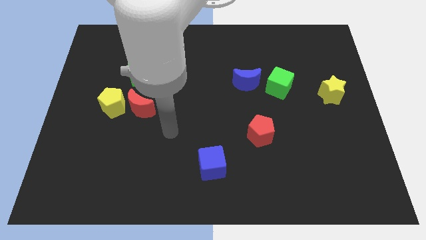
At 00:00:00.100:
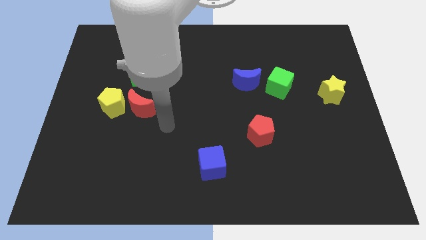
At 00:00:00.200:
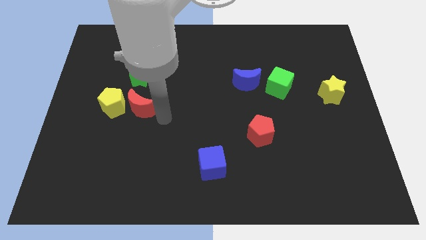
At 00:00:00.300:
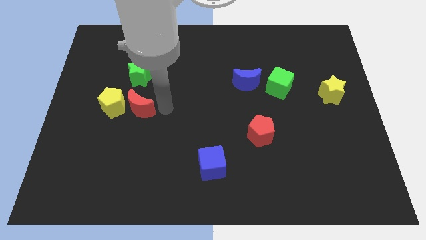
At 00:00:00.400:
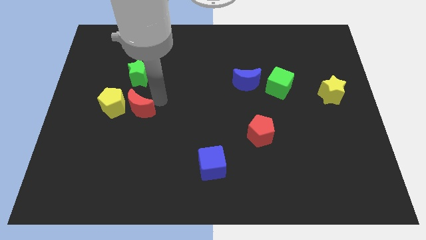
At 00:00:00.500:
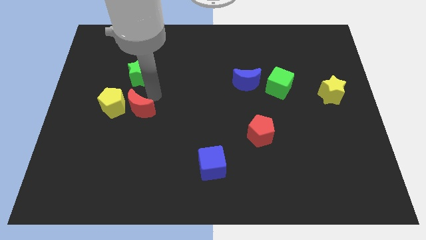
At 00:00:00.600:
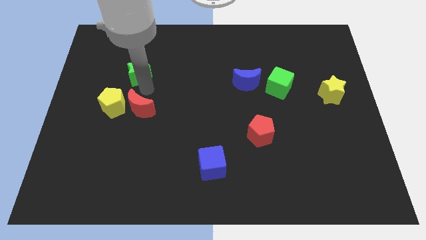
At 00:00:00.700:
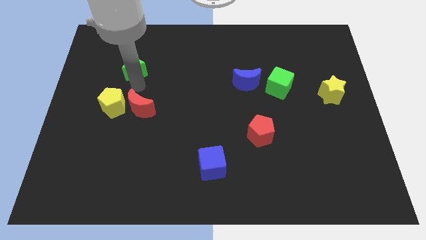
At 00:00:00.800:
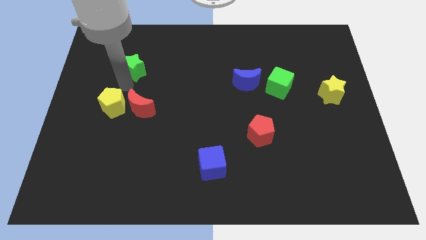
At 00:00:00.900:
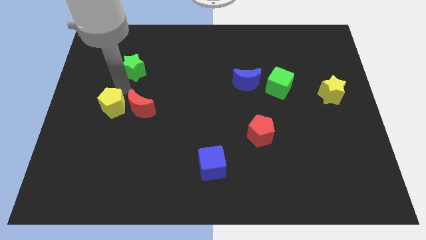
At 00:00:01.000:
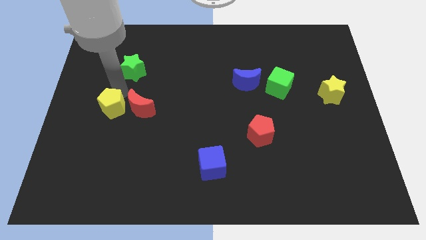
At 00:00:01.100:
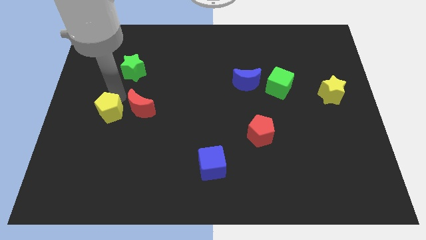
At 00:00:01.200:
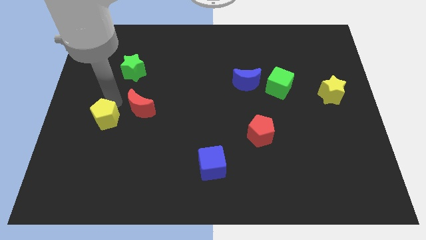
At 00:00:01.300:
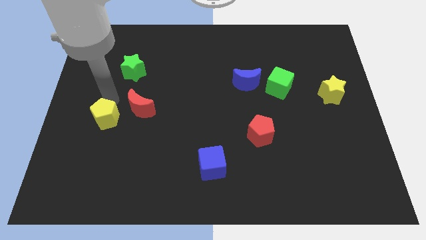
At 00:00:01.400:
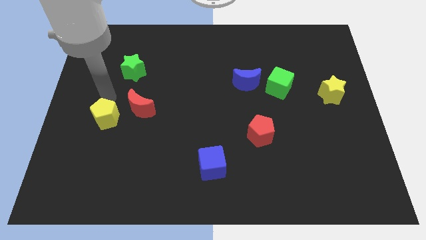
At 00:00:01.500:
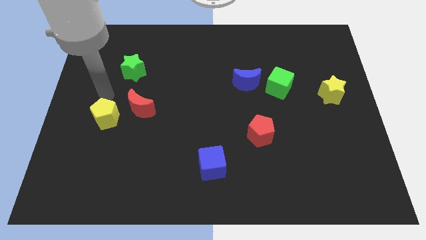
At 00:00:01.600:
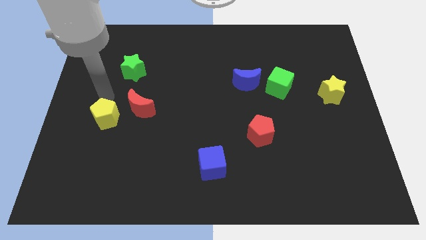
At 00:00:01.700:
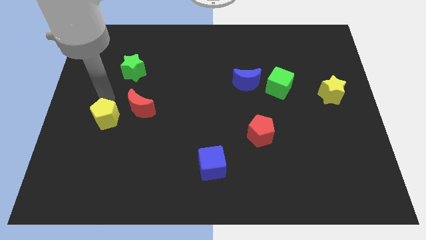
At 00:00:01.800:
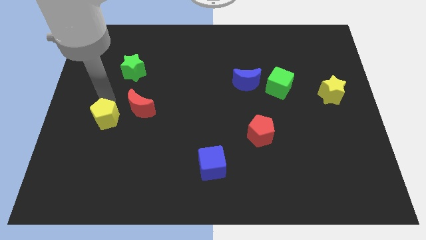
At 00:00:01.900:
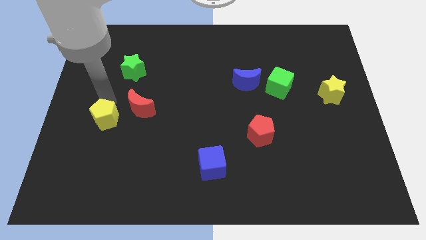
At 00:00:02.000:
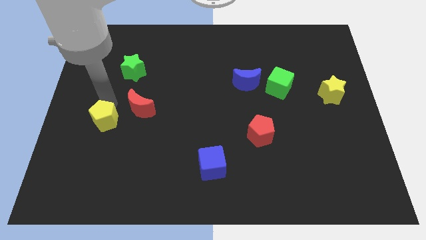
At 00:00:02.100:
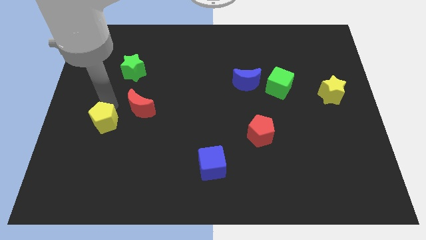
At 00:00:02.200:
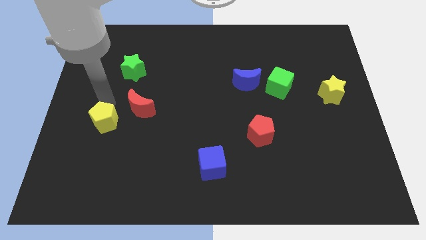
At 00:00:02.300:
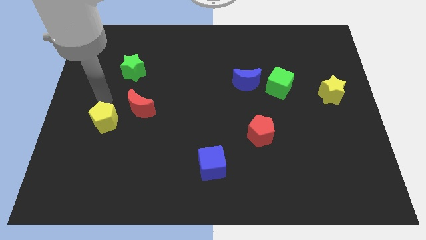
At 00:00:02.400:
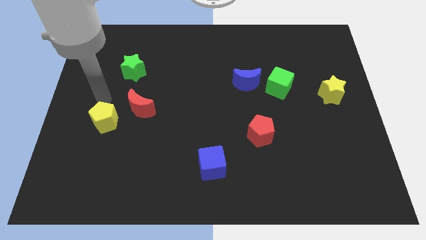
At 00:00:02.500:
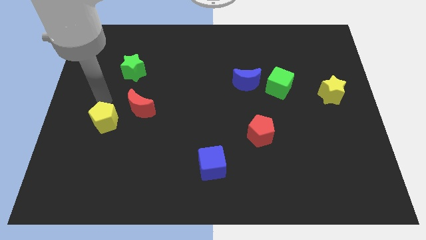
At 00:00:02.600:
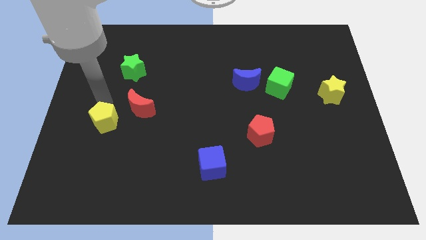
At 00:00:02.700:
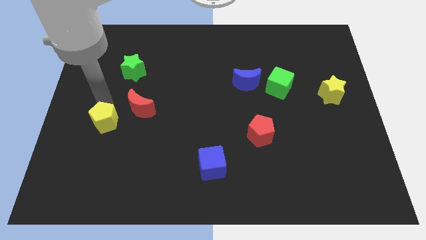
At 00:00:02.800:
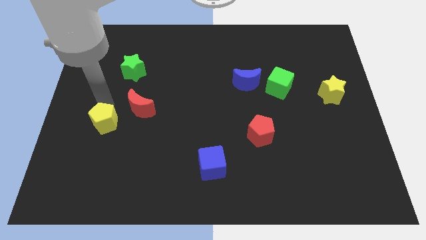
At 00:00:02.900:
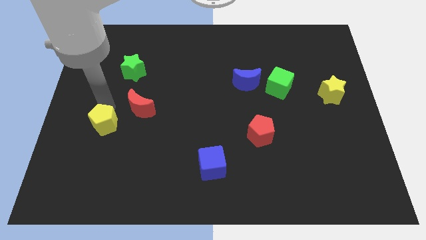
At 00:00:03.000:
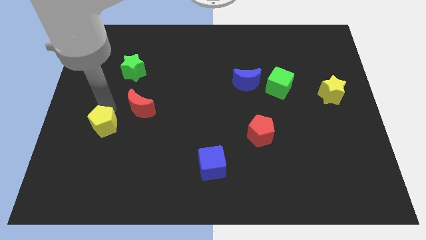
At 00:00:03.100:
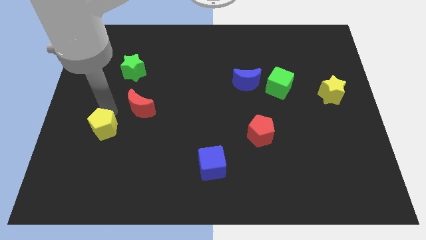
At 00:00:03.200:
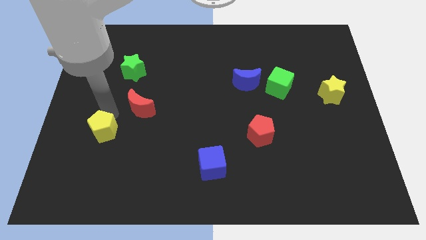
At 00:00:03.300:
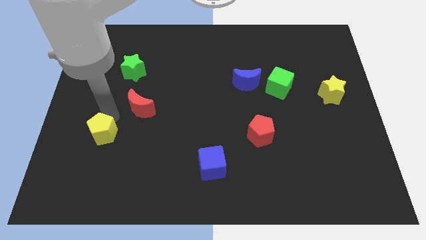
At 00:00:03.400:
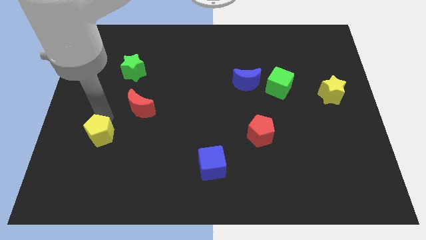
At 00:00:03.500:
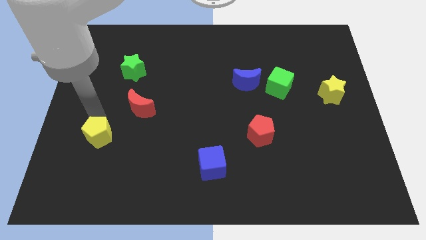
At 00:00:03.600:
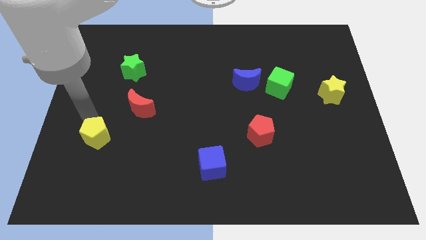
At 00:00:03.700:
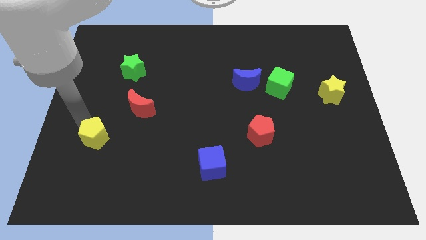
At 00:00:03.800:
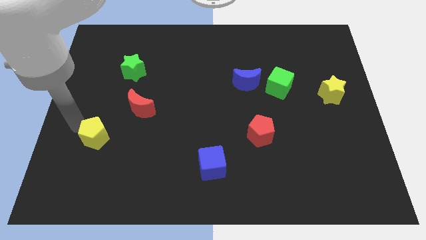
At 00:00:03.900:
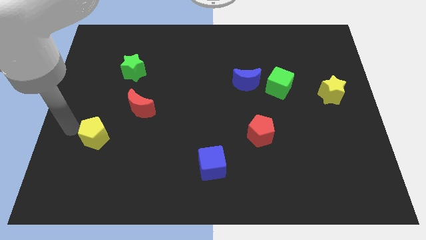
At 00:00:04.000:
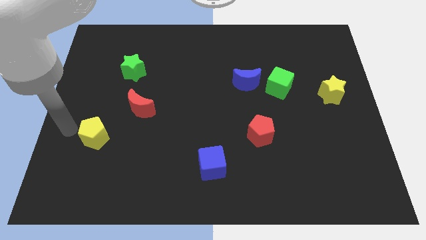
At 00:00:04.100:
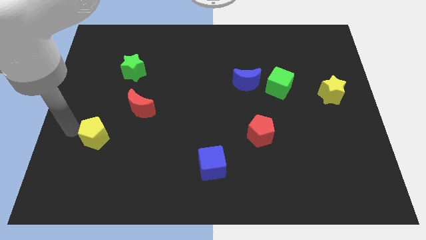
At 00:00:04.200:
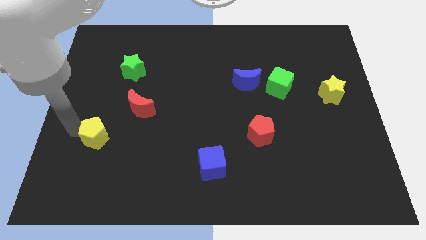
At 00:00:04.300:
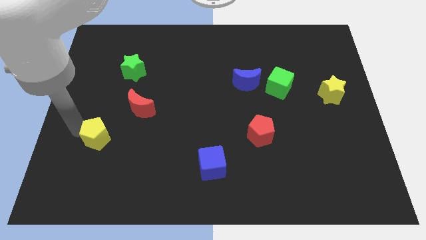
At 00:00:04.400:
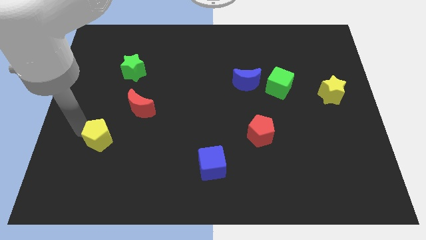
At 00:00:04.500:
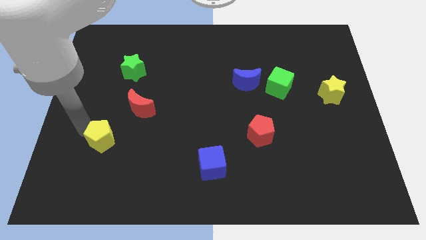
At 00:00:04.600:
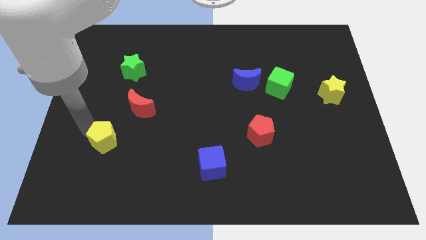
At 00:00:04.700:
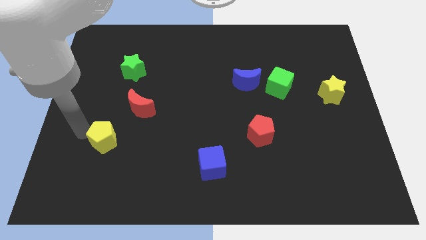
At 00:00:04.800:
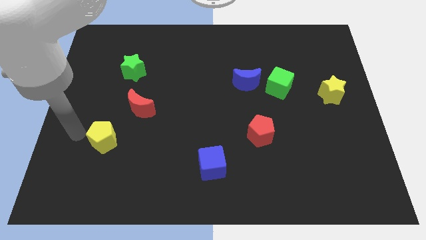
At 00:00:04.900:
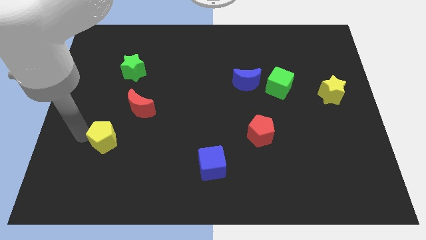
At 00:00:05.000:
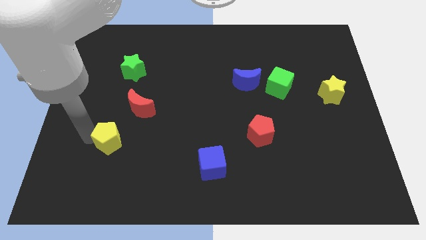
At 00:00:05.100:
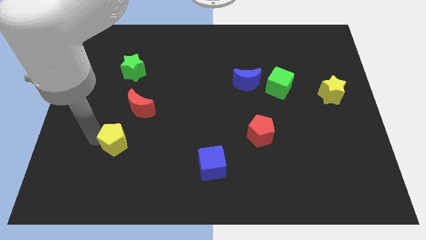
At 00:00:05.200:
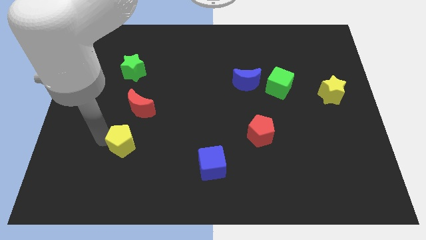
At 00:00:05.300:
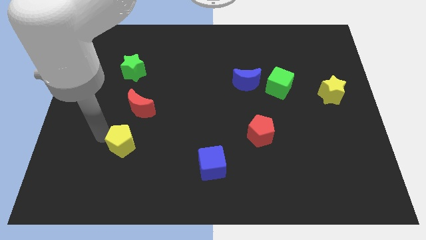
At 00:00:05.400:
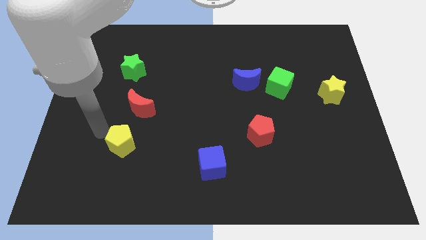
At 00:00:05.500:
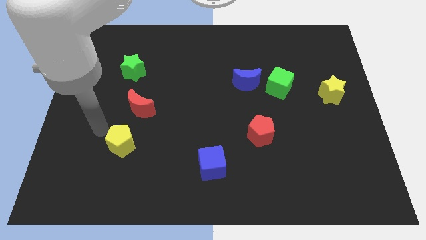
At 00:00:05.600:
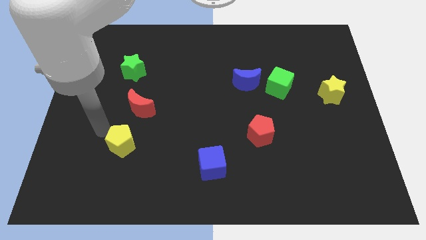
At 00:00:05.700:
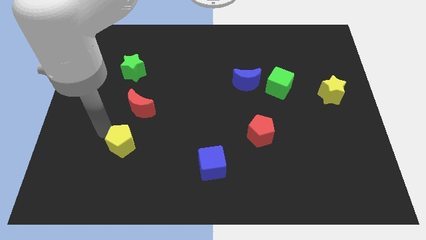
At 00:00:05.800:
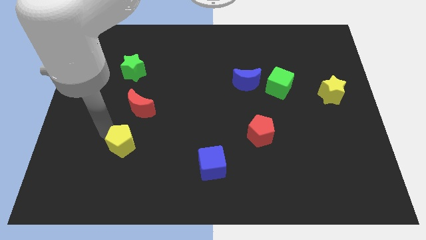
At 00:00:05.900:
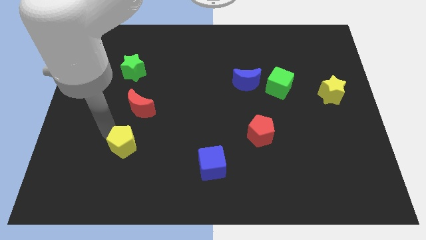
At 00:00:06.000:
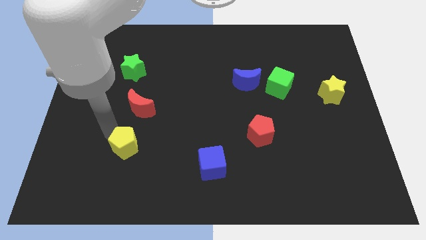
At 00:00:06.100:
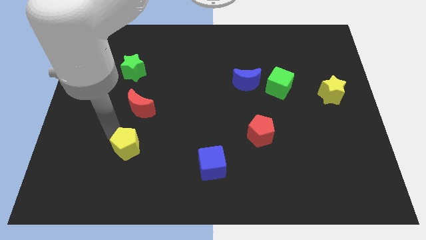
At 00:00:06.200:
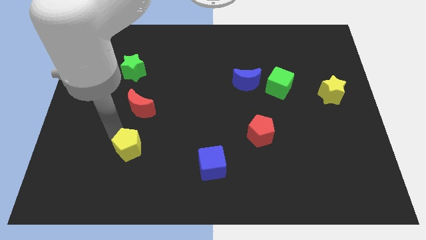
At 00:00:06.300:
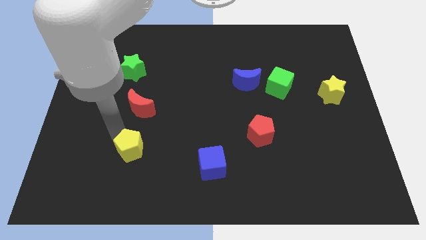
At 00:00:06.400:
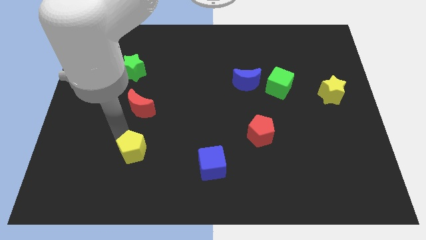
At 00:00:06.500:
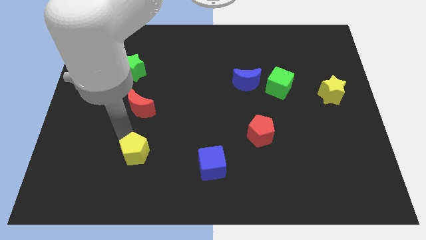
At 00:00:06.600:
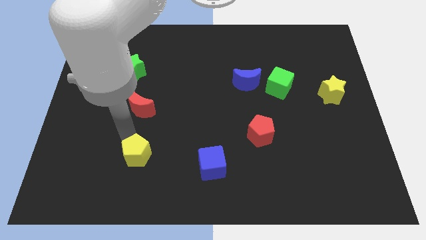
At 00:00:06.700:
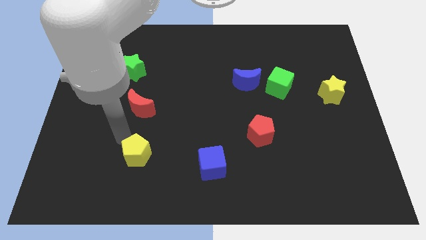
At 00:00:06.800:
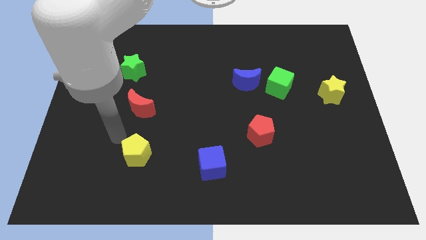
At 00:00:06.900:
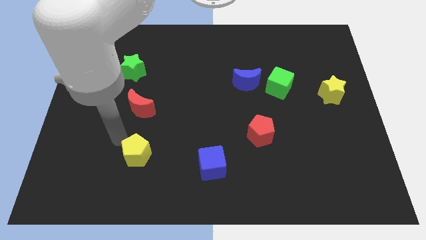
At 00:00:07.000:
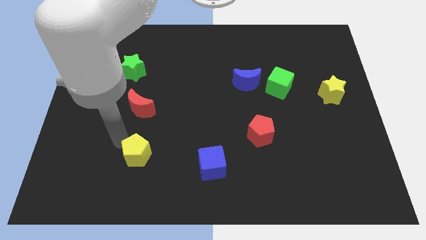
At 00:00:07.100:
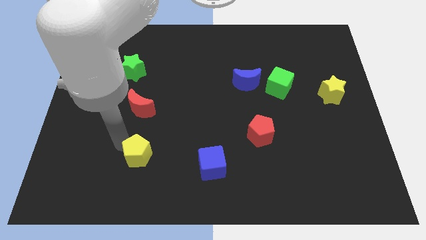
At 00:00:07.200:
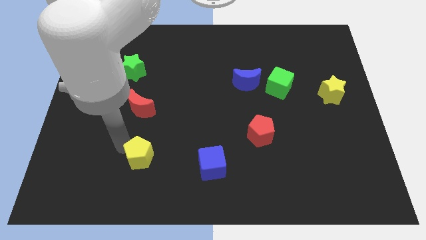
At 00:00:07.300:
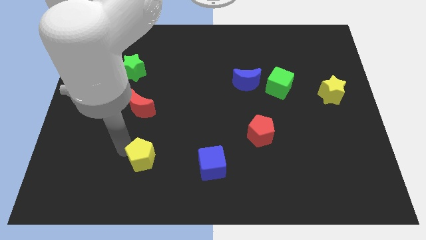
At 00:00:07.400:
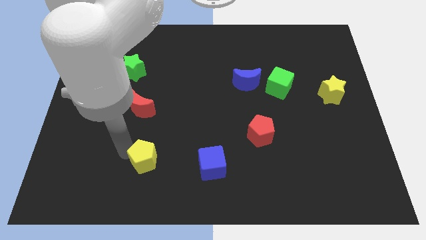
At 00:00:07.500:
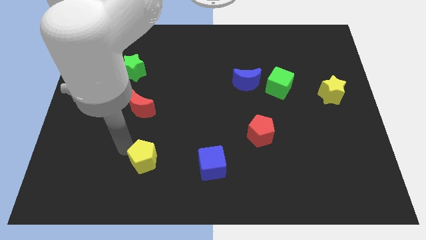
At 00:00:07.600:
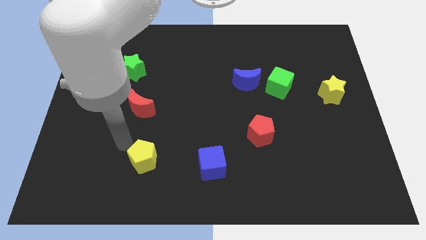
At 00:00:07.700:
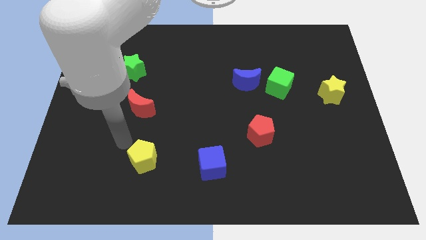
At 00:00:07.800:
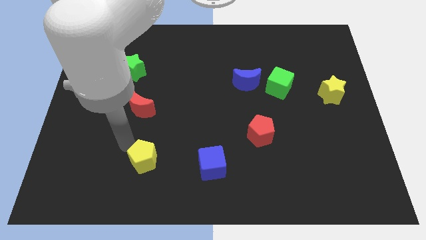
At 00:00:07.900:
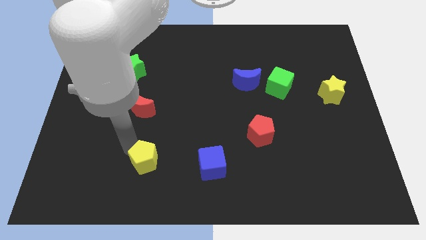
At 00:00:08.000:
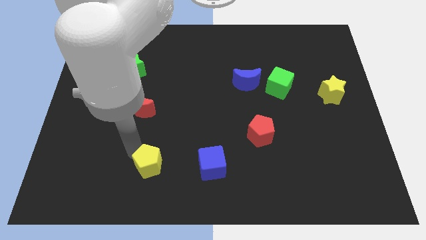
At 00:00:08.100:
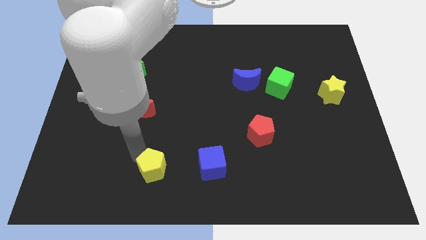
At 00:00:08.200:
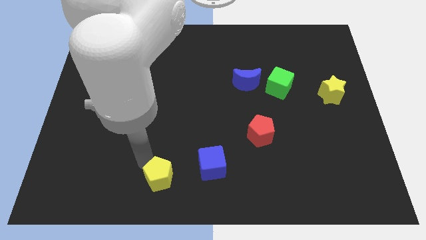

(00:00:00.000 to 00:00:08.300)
put the yellow pentagon to the bottom side
